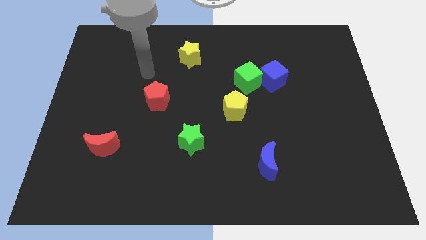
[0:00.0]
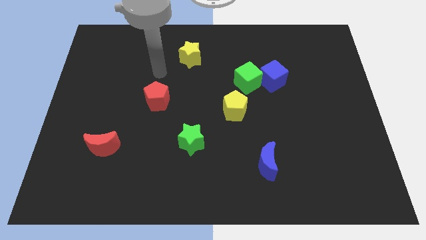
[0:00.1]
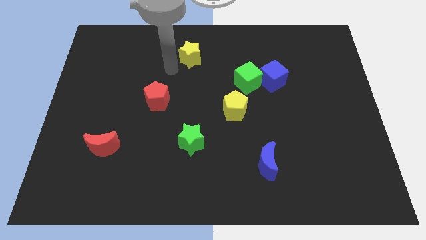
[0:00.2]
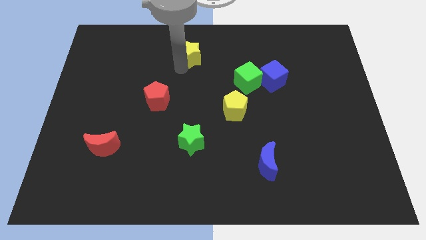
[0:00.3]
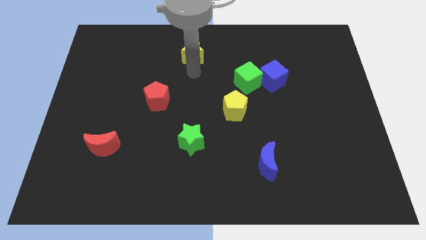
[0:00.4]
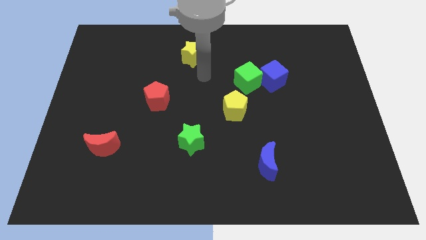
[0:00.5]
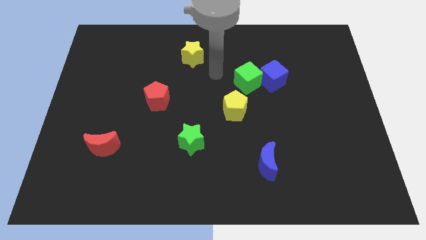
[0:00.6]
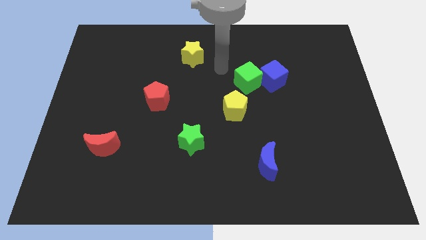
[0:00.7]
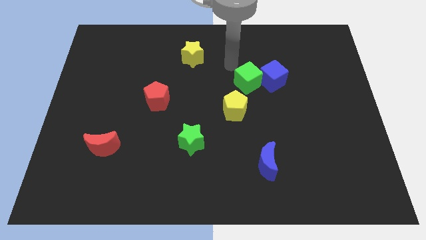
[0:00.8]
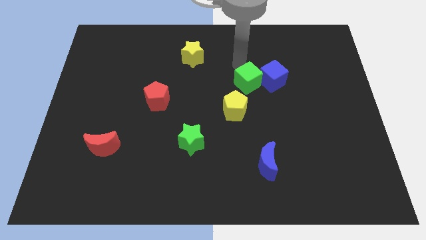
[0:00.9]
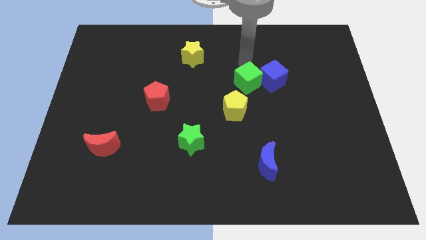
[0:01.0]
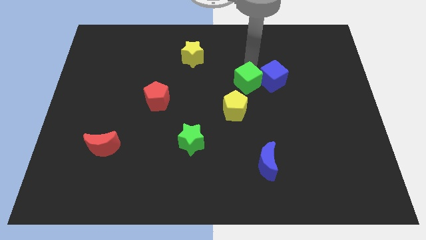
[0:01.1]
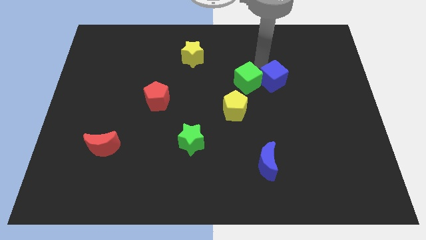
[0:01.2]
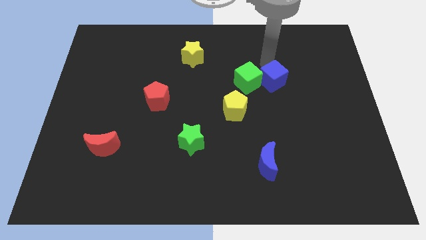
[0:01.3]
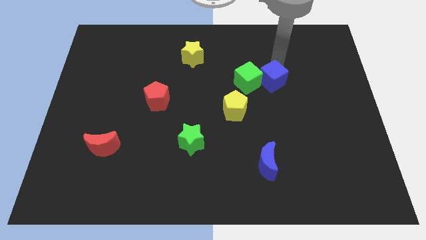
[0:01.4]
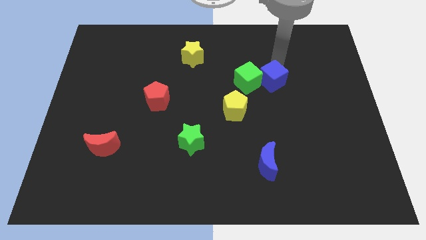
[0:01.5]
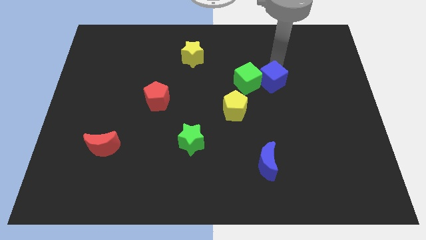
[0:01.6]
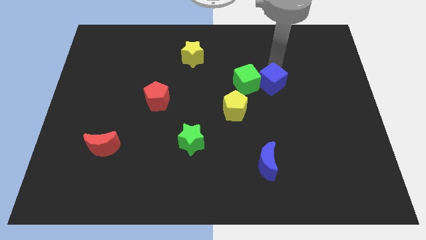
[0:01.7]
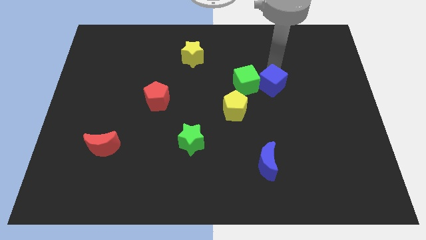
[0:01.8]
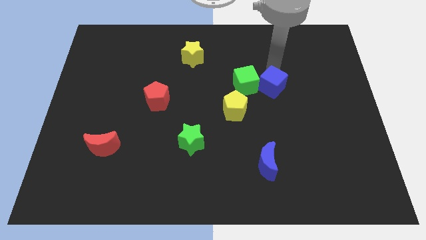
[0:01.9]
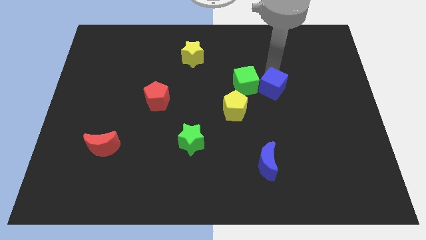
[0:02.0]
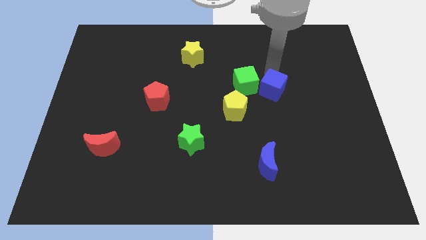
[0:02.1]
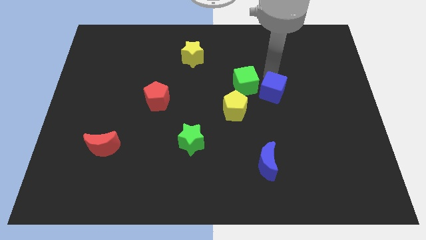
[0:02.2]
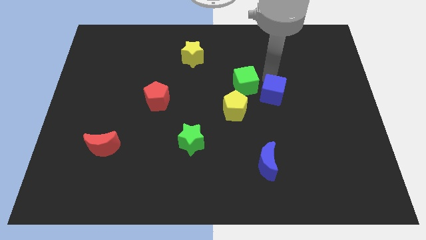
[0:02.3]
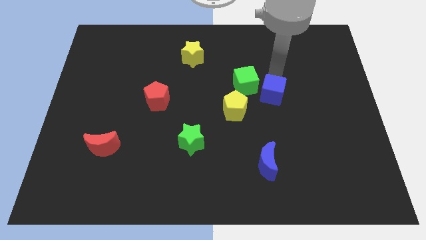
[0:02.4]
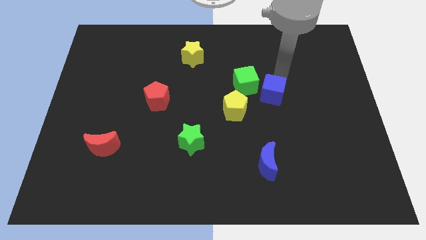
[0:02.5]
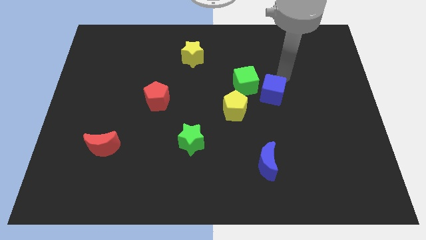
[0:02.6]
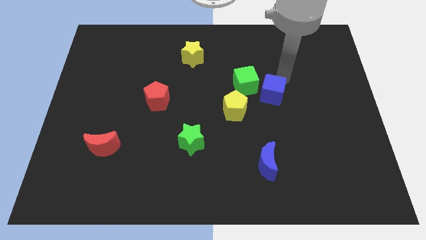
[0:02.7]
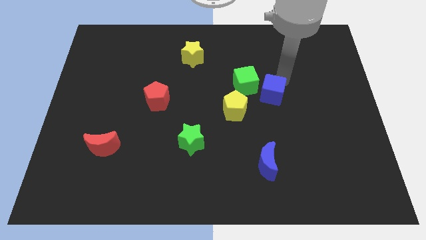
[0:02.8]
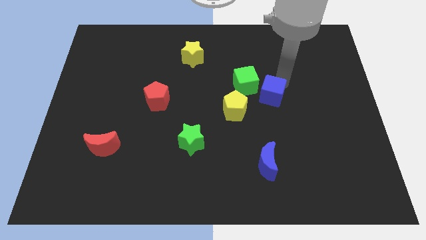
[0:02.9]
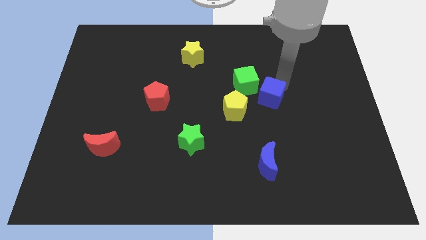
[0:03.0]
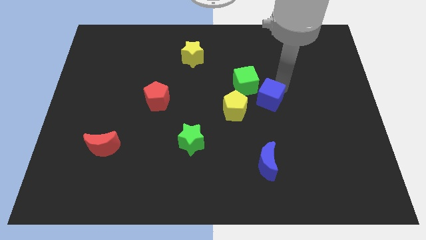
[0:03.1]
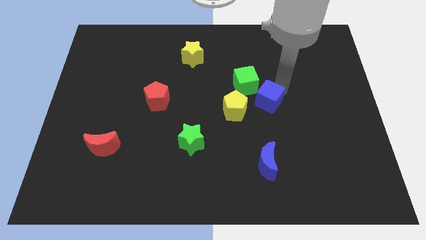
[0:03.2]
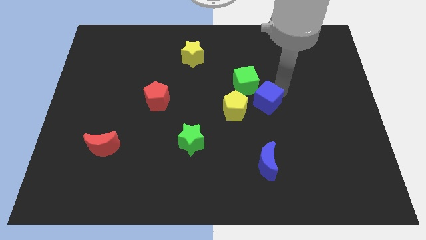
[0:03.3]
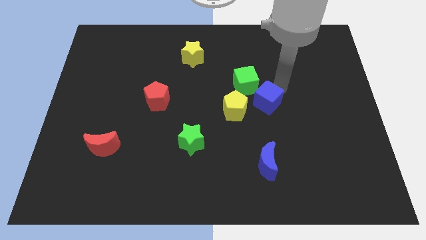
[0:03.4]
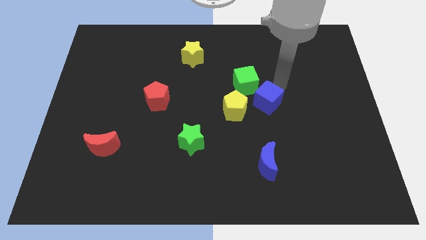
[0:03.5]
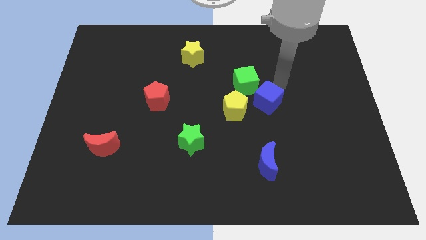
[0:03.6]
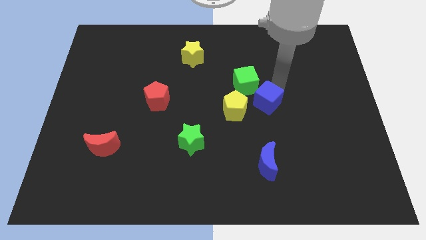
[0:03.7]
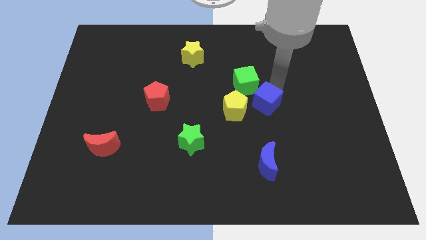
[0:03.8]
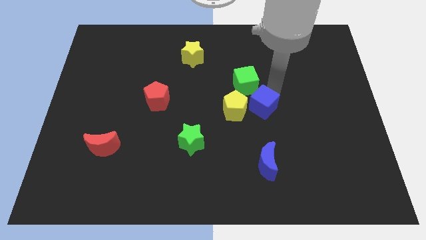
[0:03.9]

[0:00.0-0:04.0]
move the blue cube a bit downwards and left diagonally

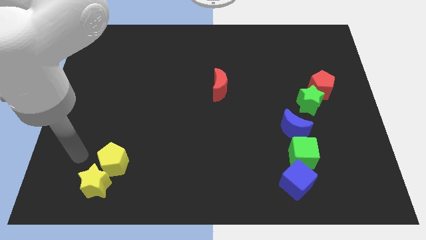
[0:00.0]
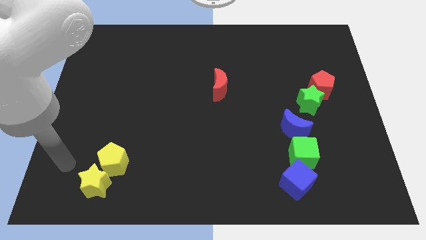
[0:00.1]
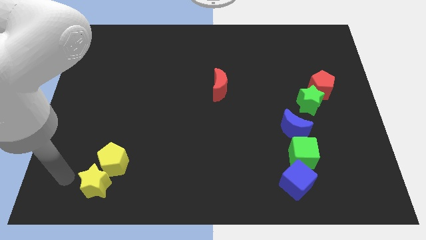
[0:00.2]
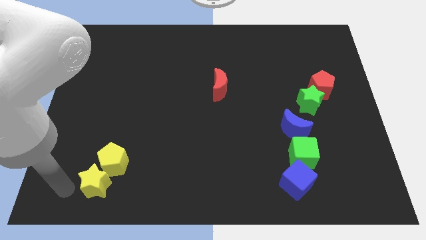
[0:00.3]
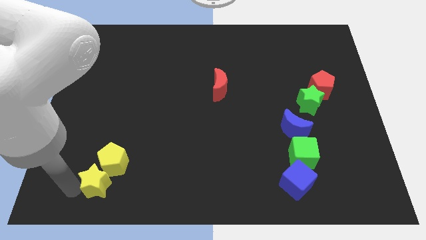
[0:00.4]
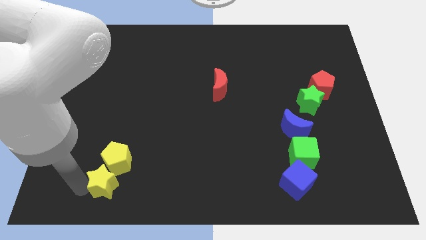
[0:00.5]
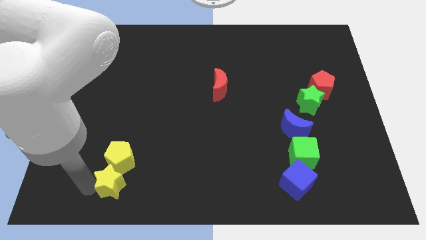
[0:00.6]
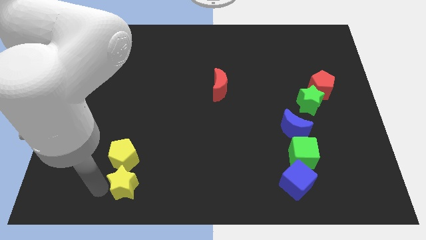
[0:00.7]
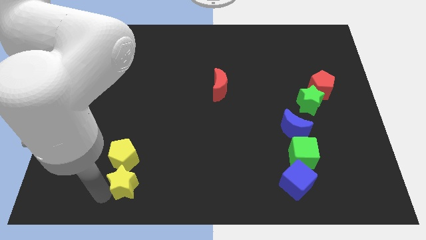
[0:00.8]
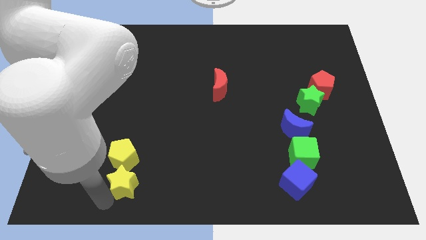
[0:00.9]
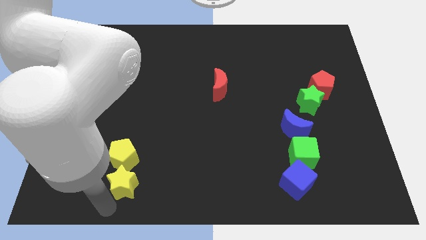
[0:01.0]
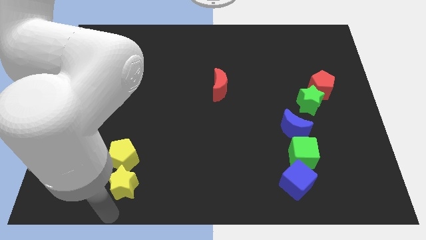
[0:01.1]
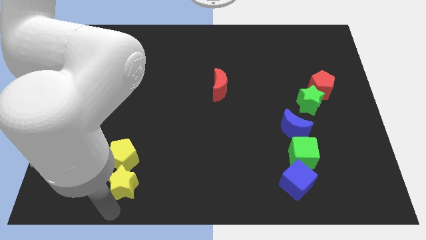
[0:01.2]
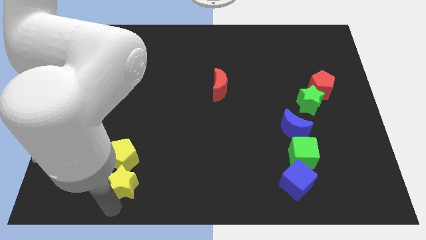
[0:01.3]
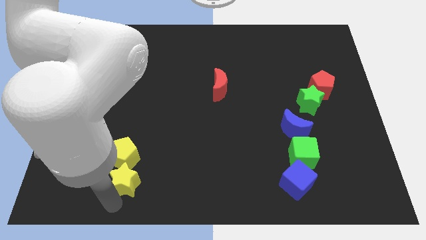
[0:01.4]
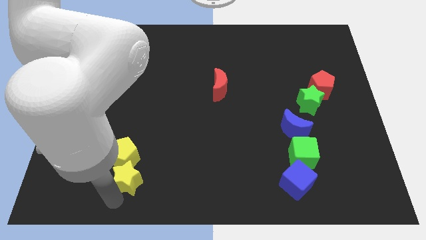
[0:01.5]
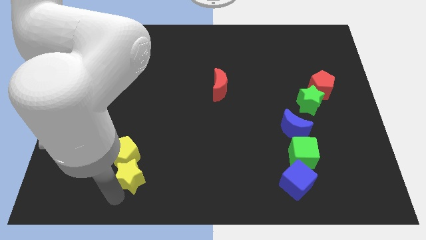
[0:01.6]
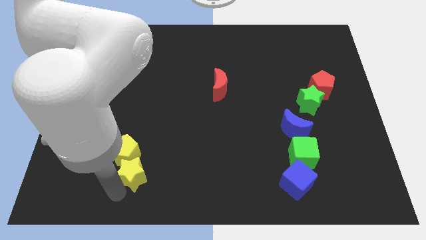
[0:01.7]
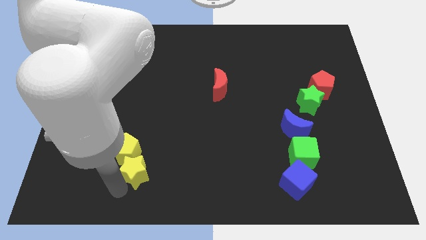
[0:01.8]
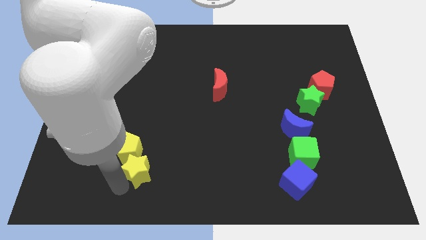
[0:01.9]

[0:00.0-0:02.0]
slightly push the yellow star upwards and right diagonally

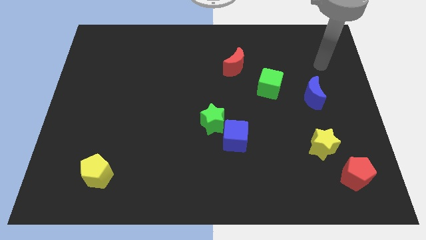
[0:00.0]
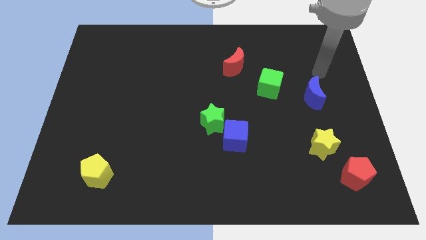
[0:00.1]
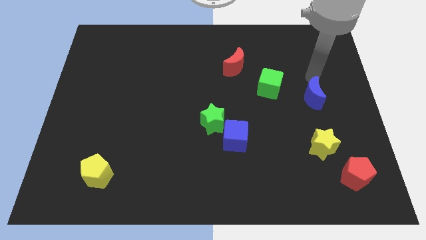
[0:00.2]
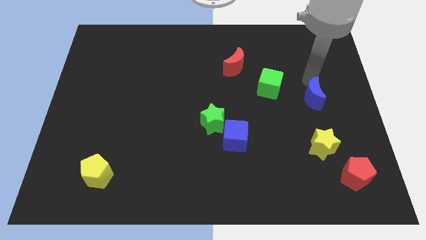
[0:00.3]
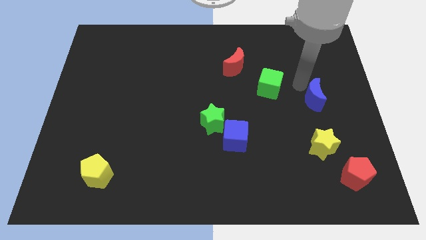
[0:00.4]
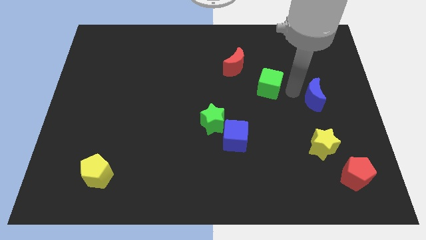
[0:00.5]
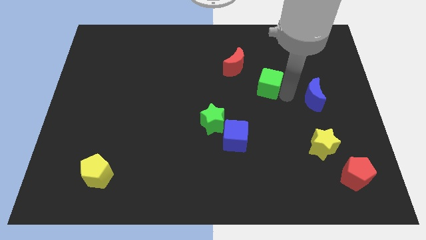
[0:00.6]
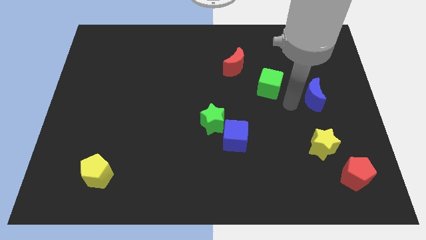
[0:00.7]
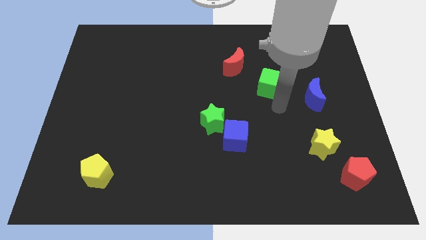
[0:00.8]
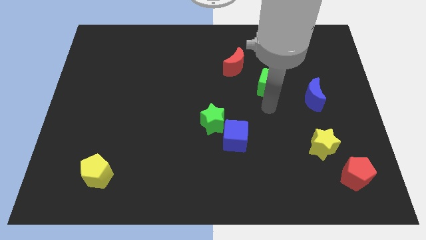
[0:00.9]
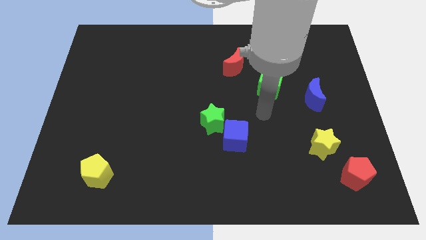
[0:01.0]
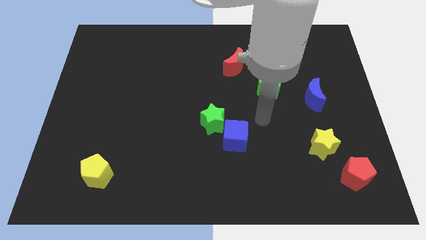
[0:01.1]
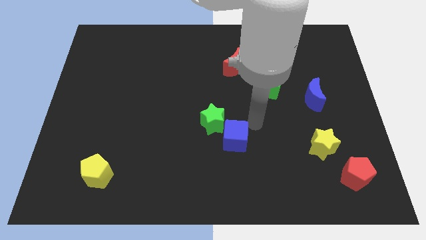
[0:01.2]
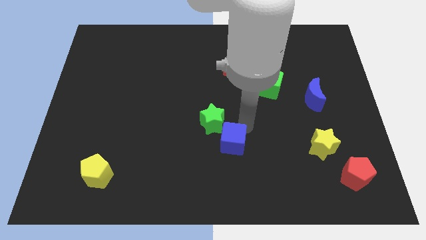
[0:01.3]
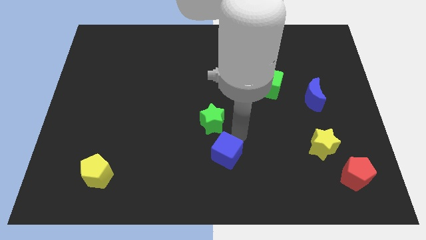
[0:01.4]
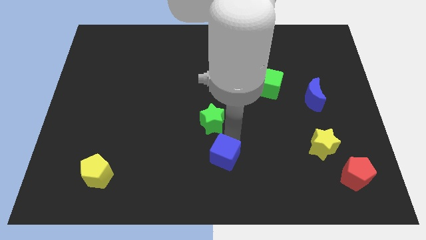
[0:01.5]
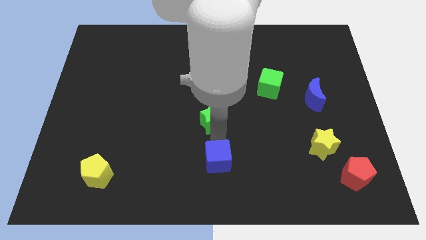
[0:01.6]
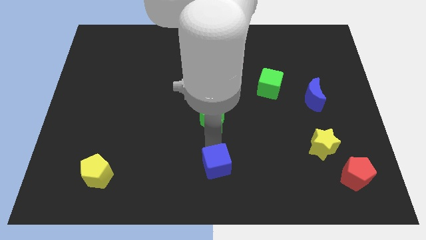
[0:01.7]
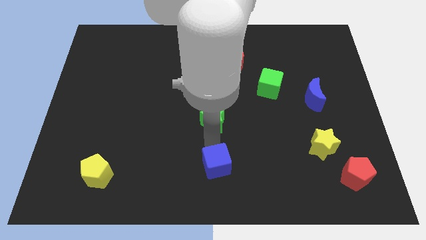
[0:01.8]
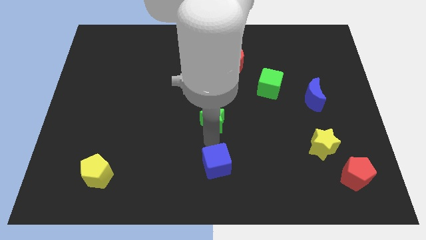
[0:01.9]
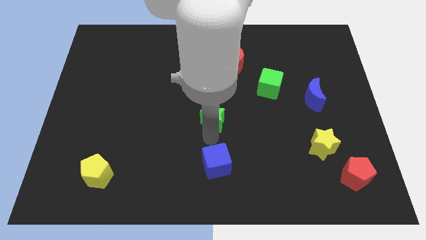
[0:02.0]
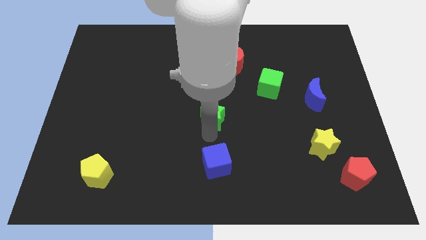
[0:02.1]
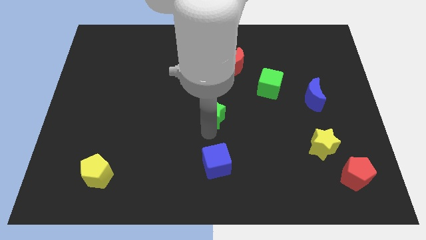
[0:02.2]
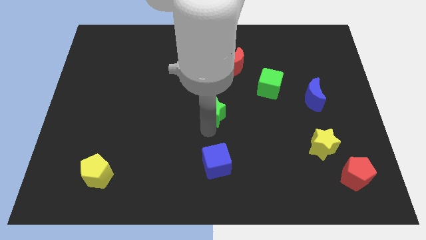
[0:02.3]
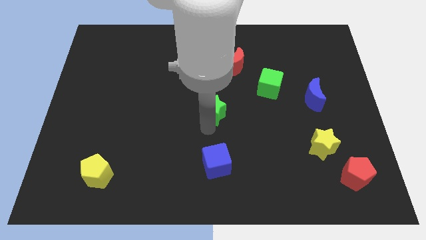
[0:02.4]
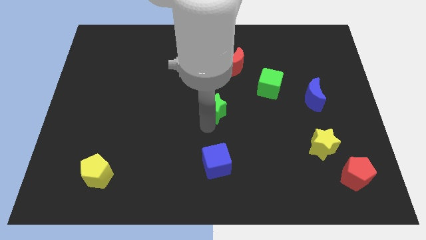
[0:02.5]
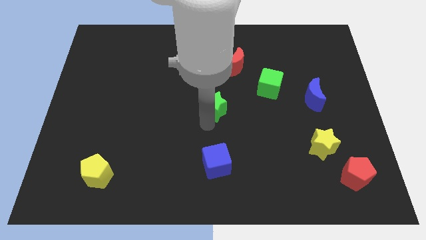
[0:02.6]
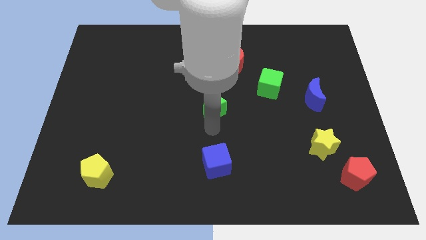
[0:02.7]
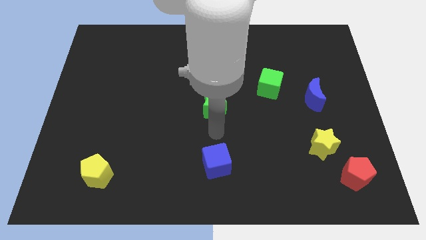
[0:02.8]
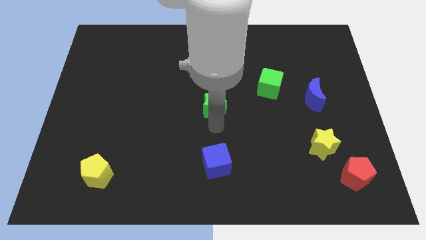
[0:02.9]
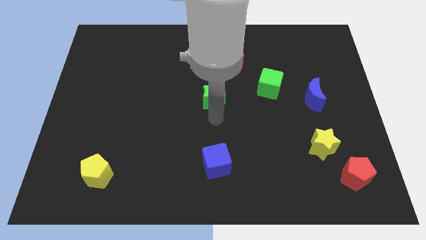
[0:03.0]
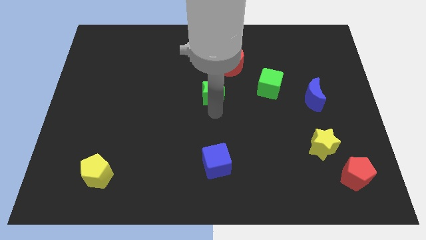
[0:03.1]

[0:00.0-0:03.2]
slide the green star a little upwards
